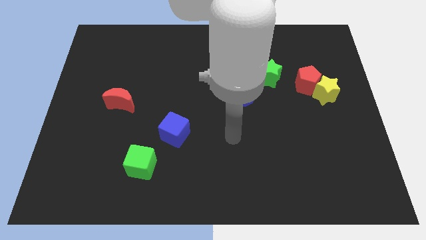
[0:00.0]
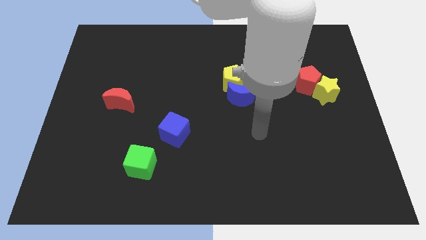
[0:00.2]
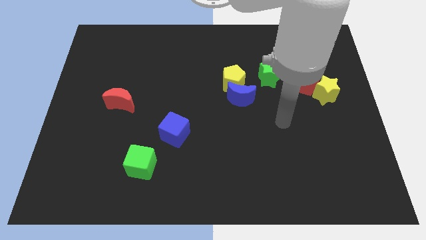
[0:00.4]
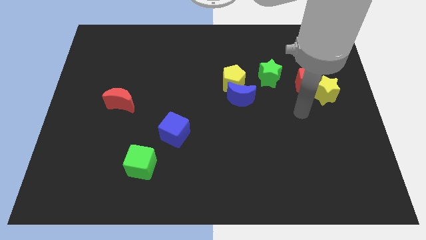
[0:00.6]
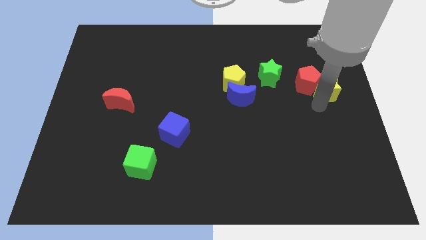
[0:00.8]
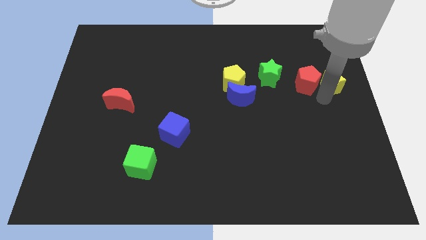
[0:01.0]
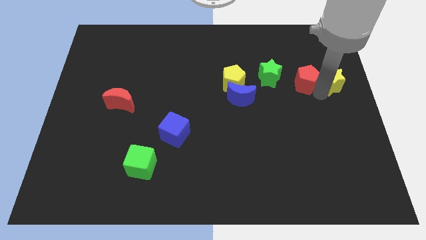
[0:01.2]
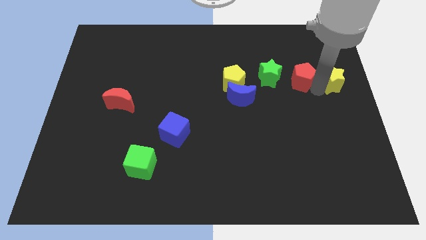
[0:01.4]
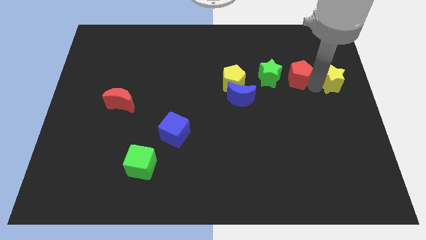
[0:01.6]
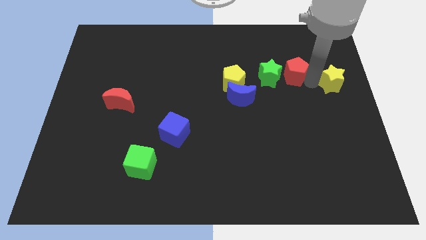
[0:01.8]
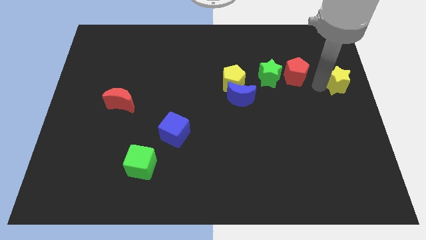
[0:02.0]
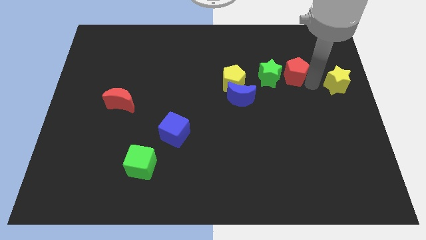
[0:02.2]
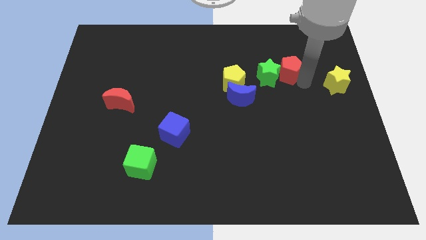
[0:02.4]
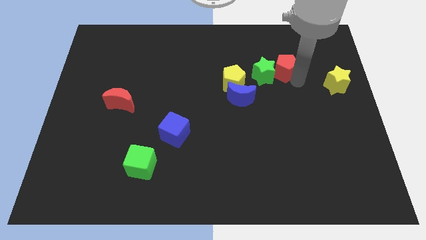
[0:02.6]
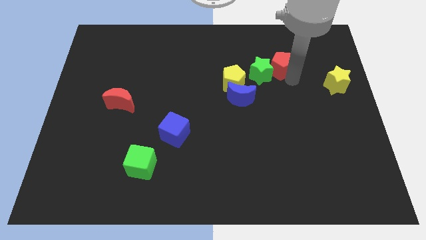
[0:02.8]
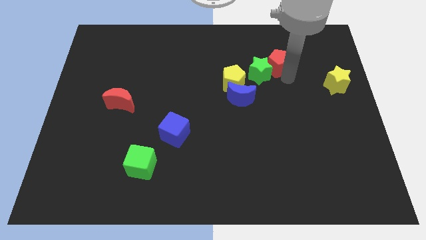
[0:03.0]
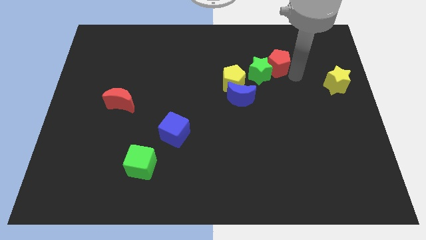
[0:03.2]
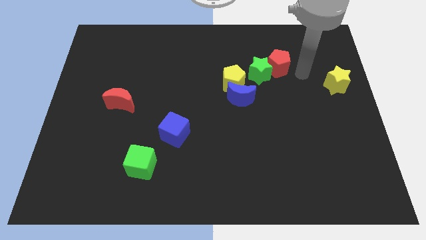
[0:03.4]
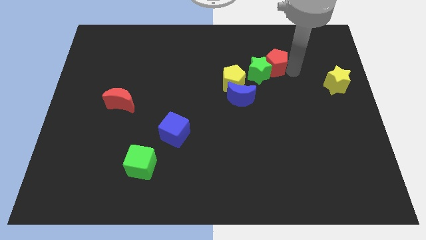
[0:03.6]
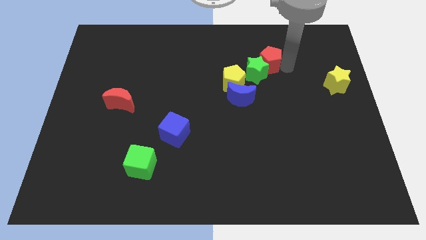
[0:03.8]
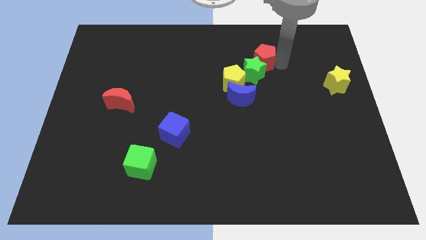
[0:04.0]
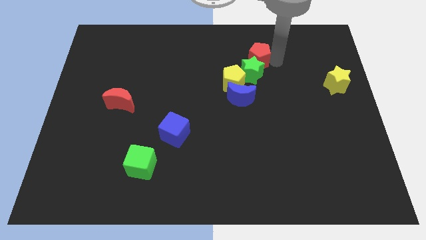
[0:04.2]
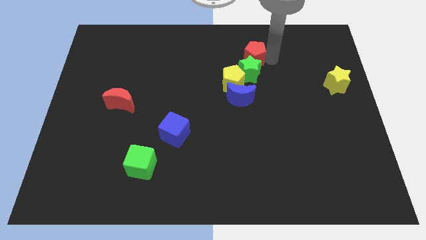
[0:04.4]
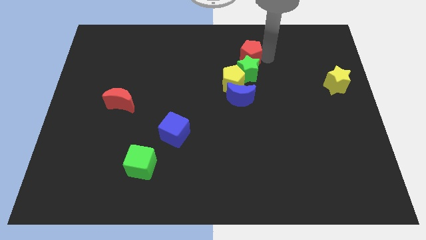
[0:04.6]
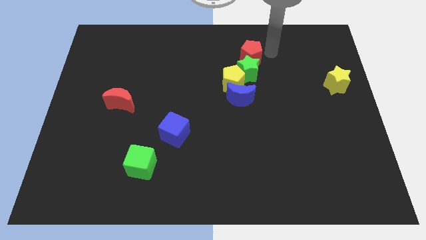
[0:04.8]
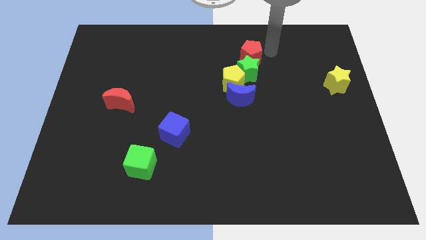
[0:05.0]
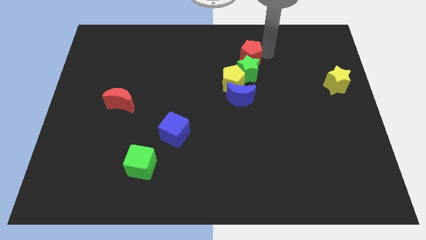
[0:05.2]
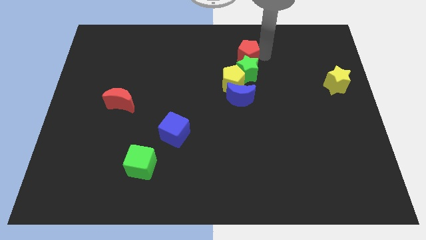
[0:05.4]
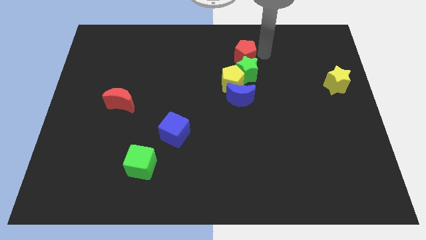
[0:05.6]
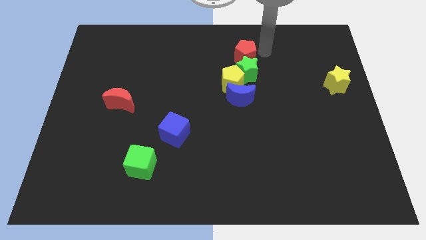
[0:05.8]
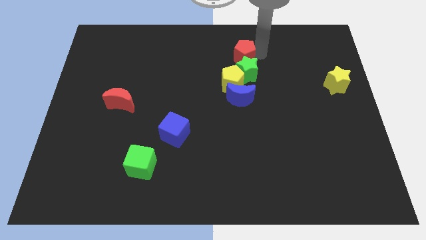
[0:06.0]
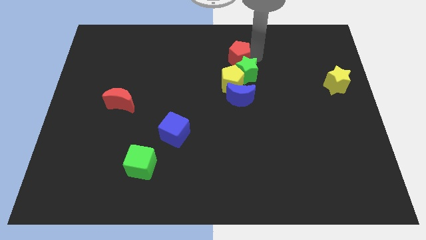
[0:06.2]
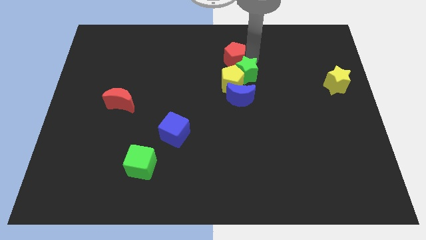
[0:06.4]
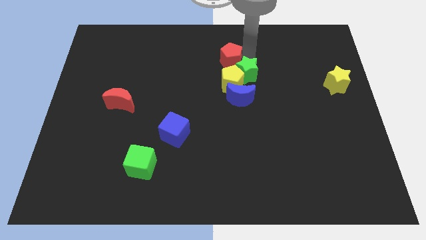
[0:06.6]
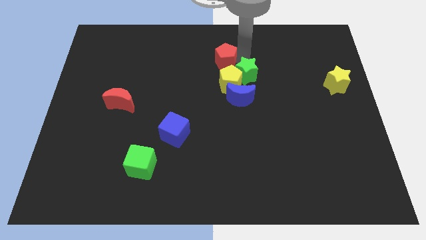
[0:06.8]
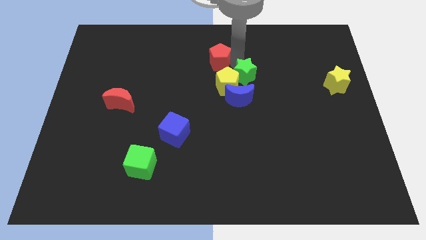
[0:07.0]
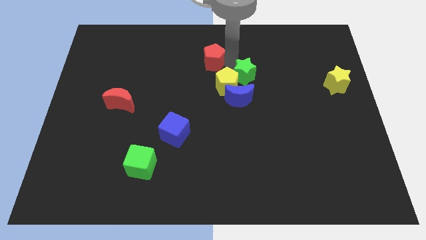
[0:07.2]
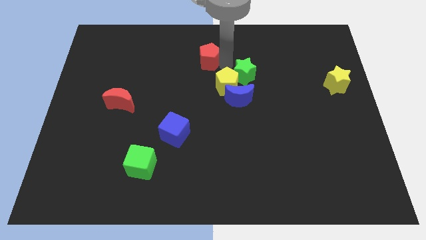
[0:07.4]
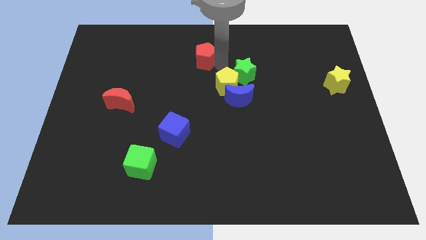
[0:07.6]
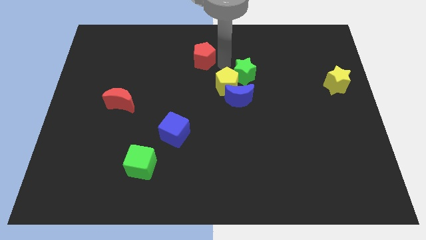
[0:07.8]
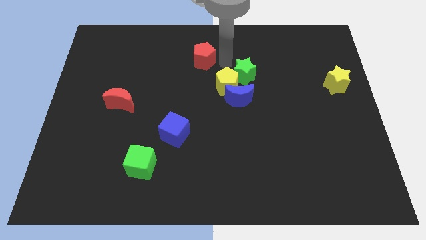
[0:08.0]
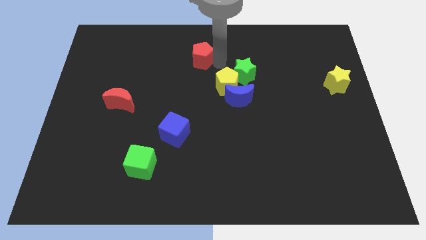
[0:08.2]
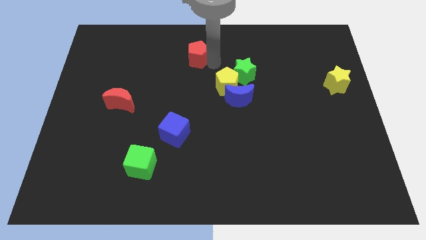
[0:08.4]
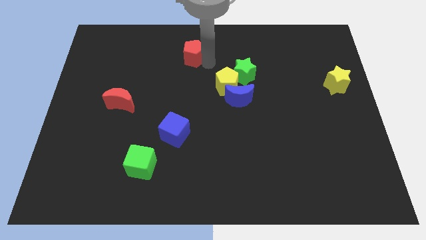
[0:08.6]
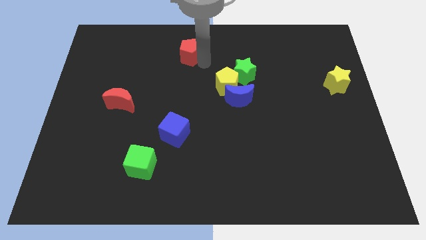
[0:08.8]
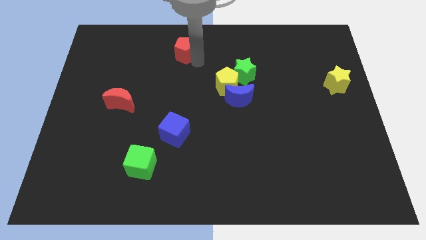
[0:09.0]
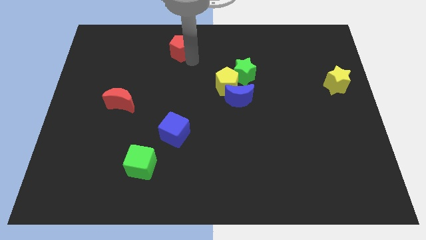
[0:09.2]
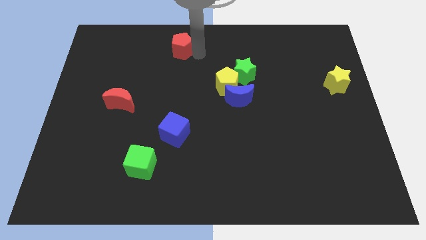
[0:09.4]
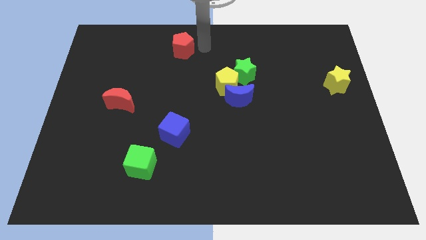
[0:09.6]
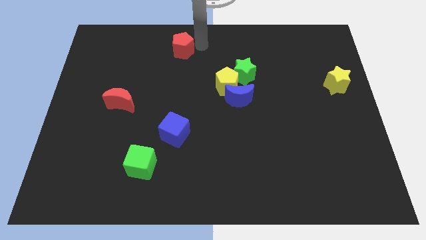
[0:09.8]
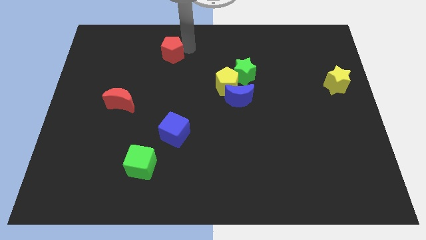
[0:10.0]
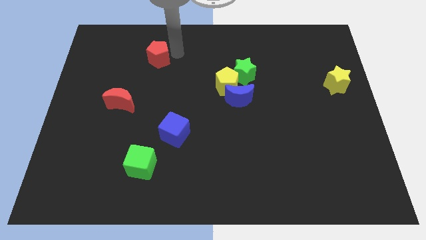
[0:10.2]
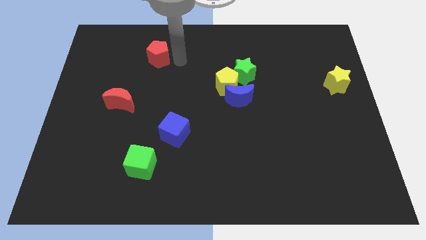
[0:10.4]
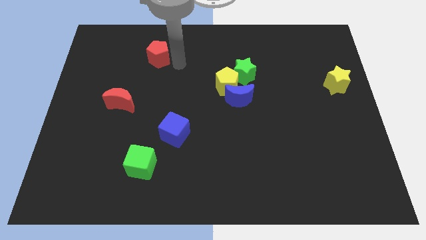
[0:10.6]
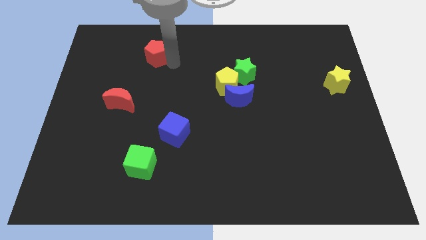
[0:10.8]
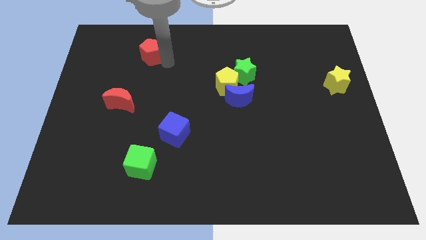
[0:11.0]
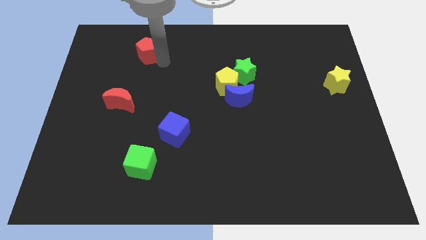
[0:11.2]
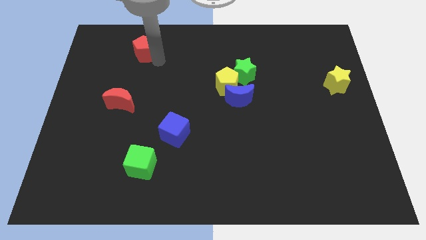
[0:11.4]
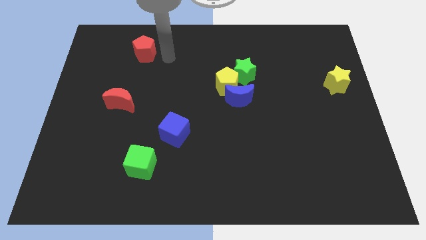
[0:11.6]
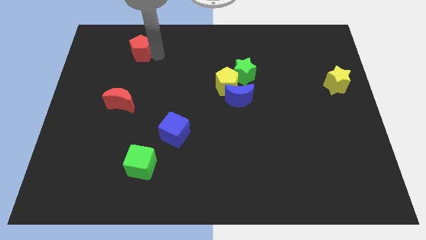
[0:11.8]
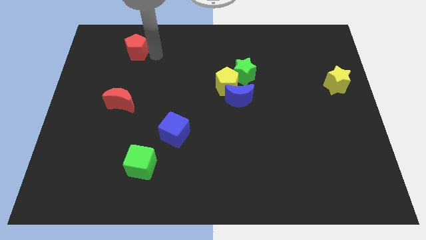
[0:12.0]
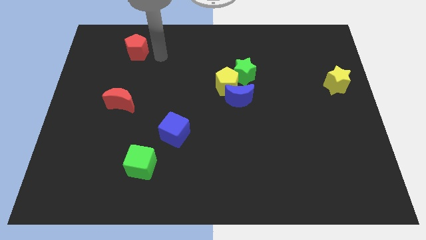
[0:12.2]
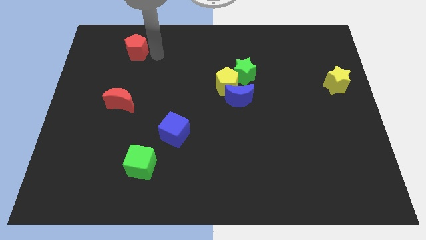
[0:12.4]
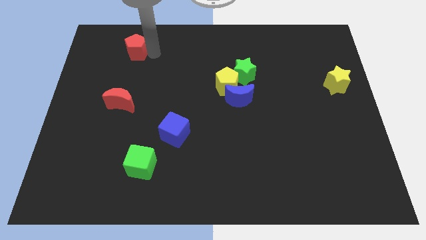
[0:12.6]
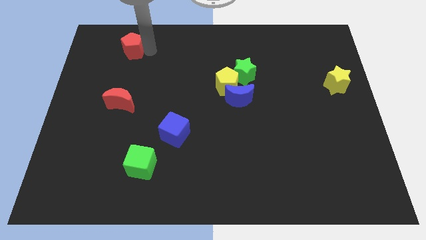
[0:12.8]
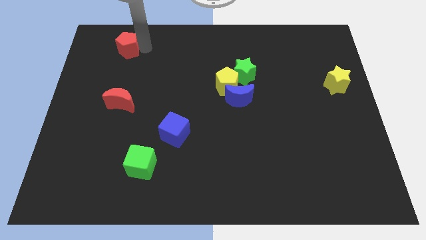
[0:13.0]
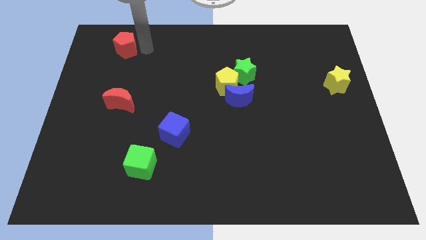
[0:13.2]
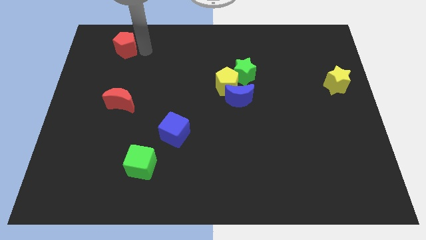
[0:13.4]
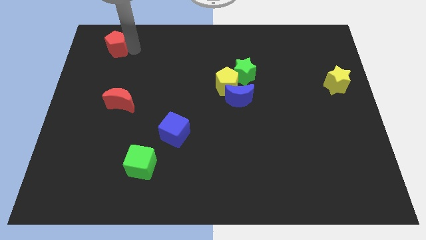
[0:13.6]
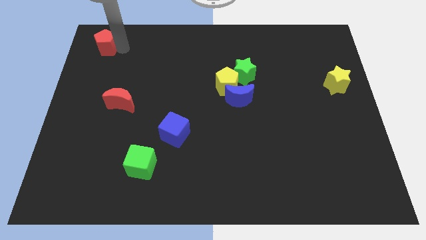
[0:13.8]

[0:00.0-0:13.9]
put the red pentagon to the upper left corner
